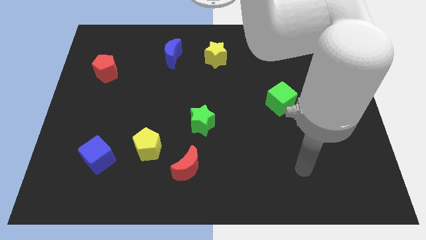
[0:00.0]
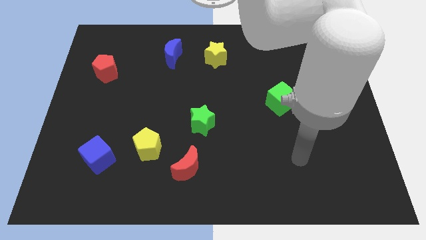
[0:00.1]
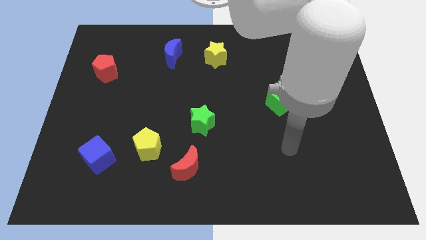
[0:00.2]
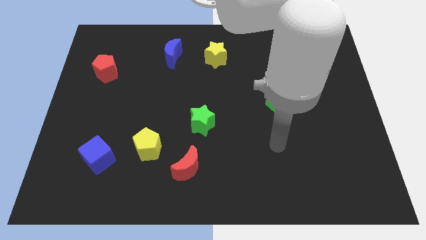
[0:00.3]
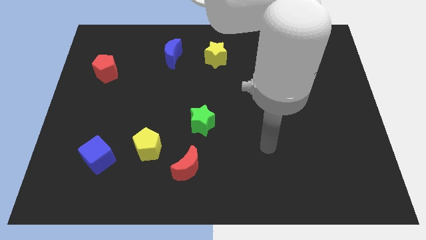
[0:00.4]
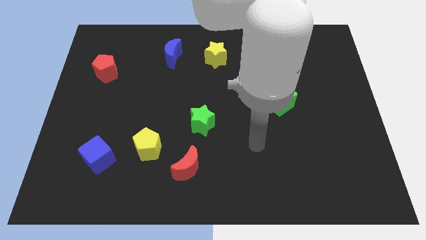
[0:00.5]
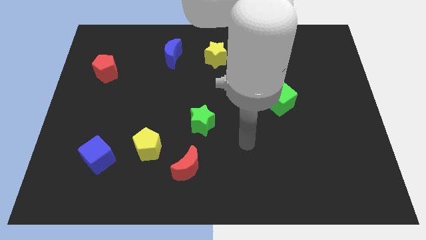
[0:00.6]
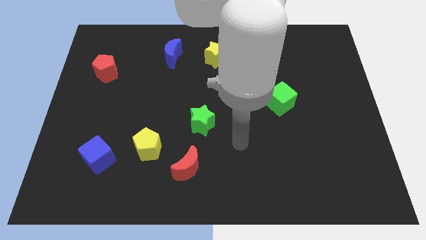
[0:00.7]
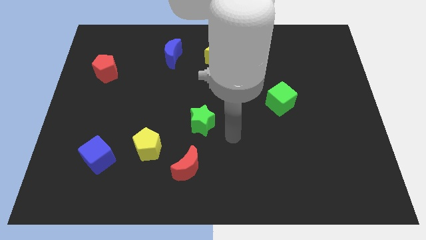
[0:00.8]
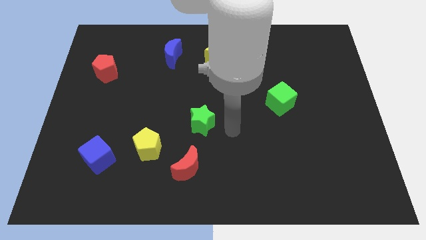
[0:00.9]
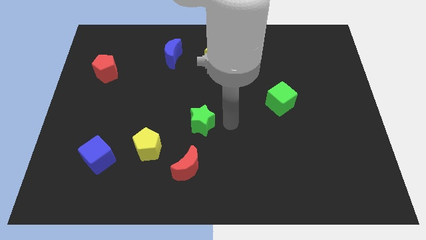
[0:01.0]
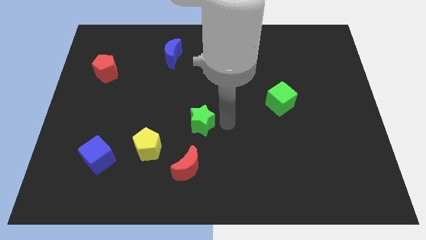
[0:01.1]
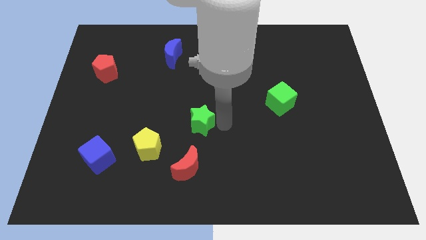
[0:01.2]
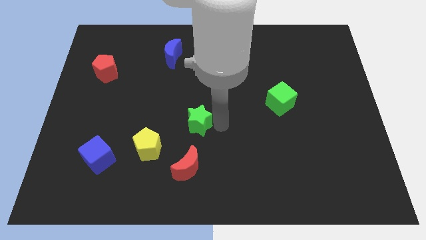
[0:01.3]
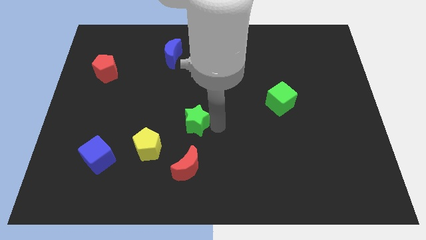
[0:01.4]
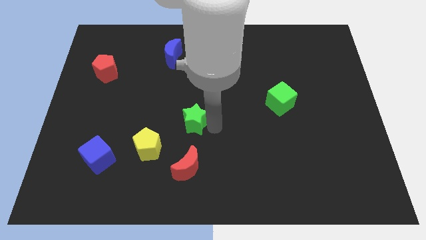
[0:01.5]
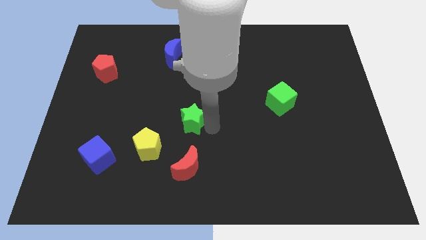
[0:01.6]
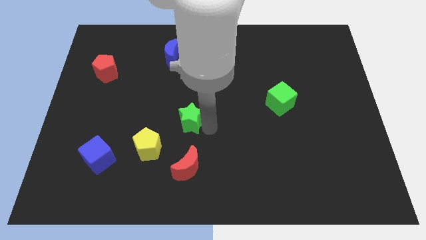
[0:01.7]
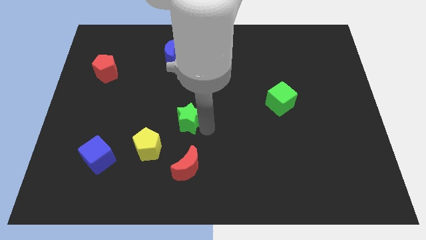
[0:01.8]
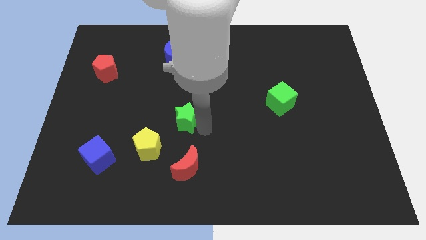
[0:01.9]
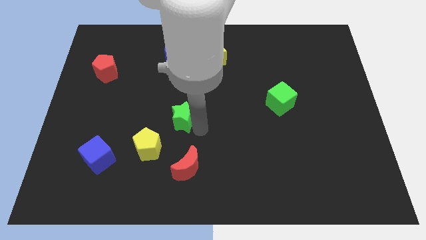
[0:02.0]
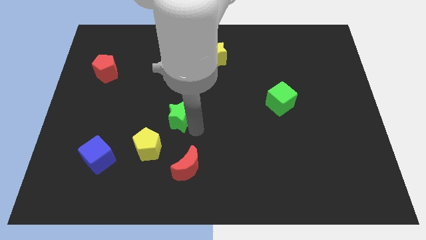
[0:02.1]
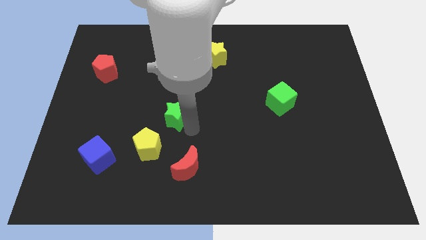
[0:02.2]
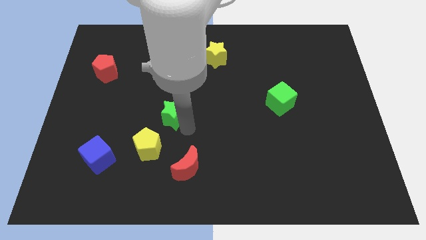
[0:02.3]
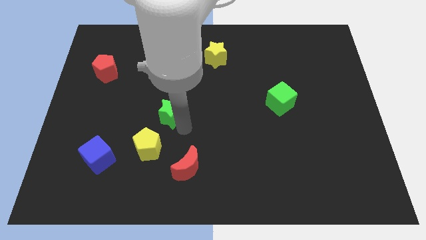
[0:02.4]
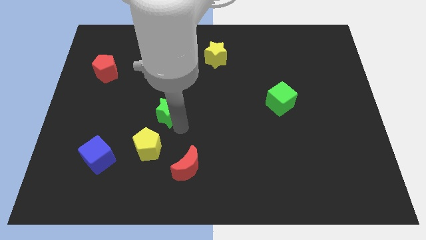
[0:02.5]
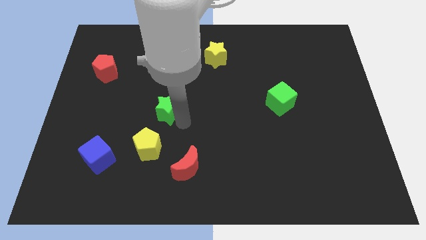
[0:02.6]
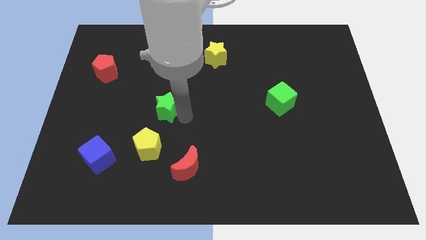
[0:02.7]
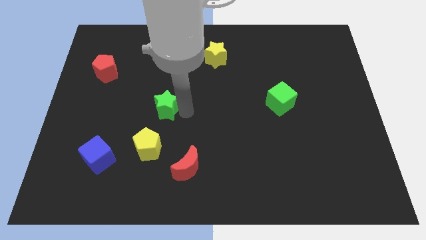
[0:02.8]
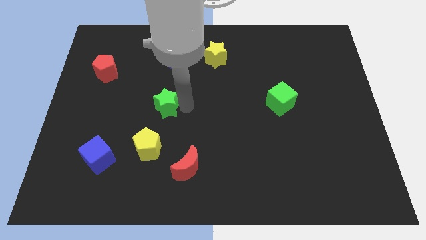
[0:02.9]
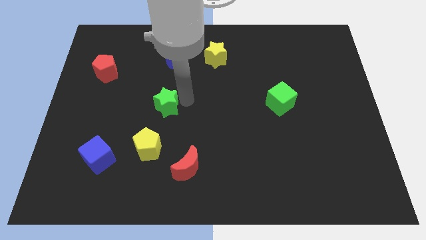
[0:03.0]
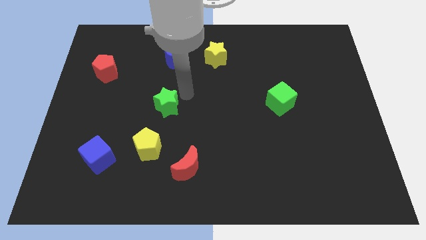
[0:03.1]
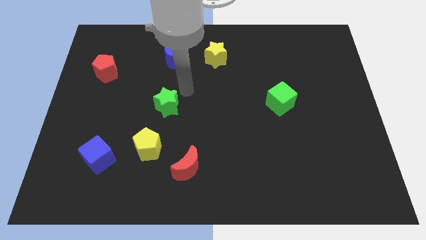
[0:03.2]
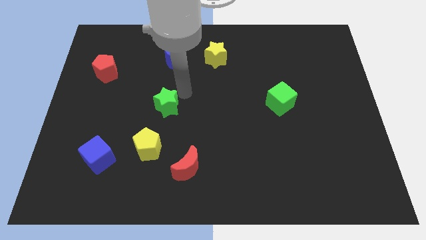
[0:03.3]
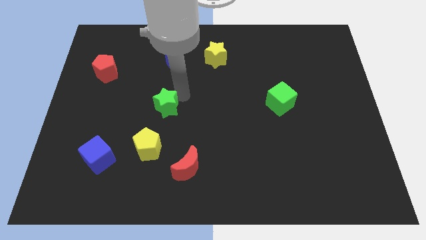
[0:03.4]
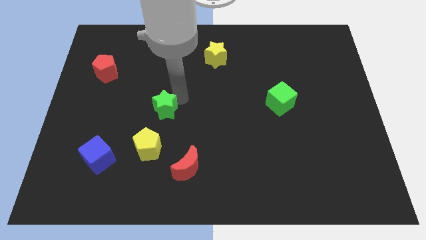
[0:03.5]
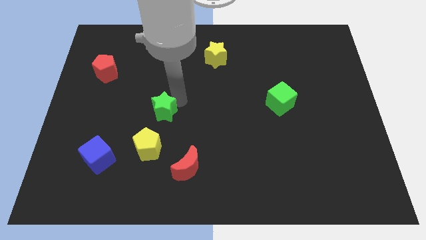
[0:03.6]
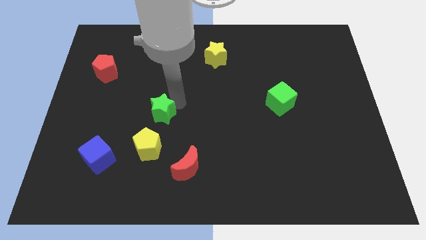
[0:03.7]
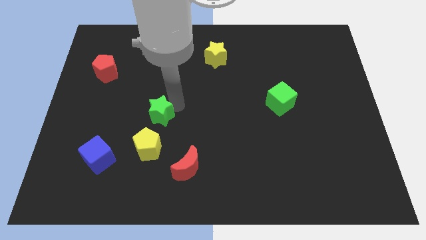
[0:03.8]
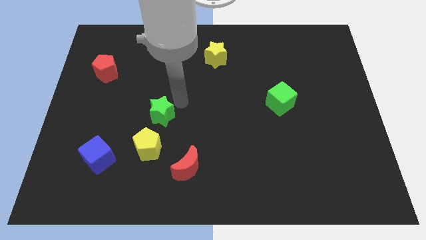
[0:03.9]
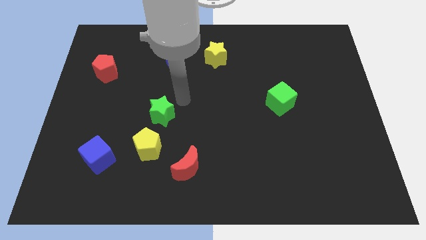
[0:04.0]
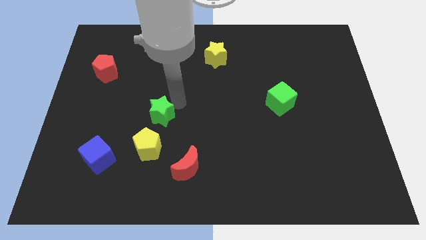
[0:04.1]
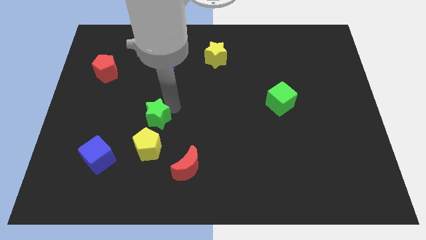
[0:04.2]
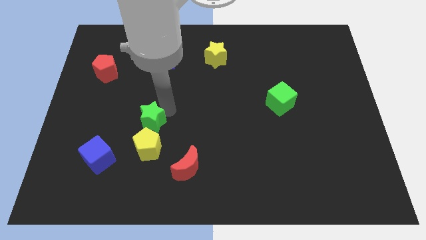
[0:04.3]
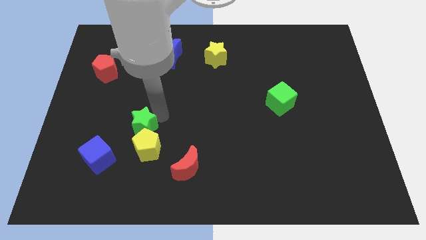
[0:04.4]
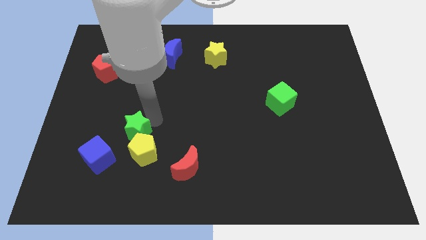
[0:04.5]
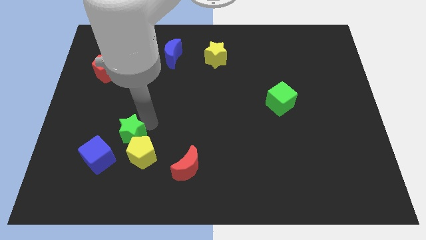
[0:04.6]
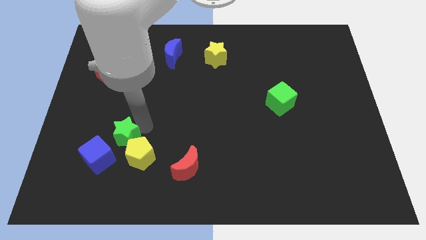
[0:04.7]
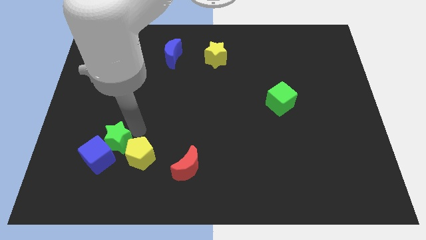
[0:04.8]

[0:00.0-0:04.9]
put the green star next to the blue cube

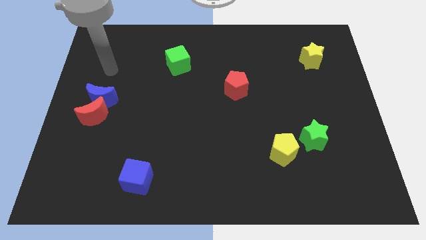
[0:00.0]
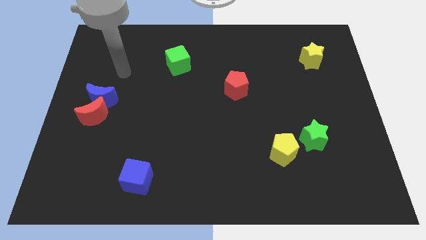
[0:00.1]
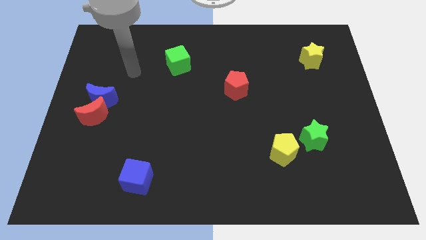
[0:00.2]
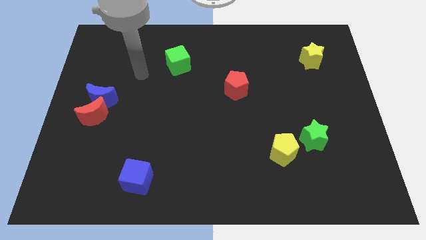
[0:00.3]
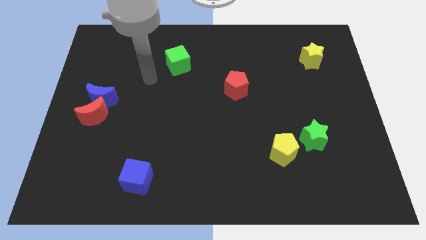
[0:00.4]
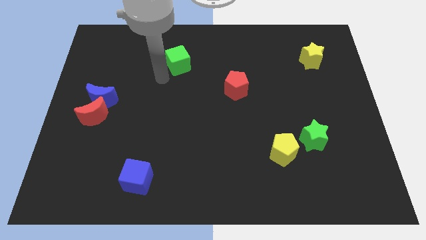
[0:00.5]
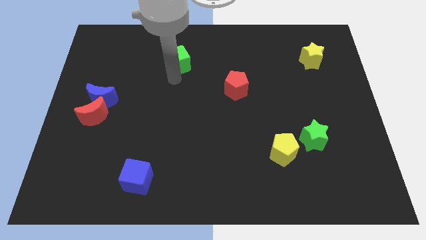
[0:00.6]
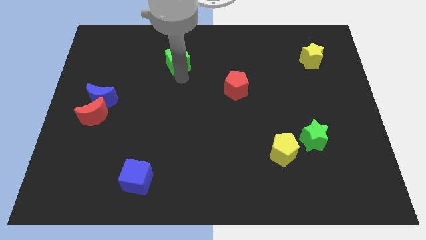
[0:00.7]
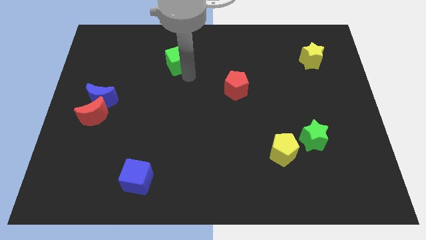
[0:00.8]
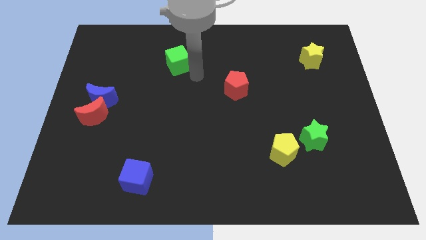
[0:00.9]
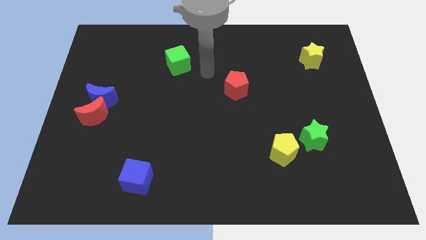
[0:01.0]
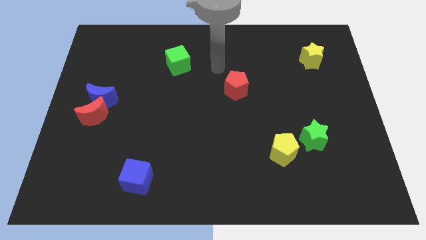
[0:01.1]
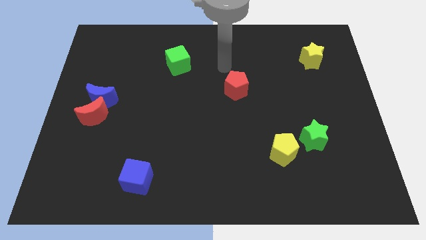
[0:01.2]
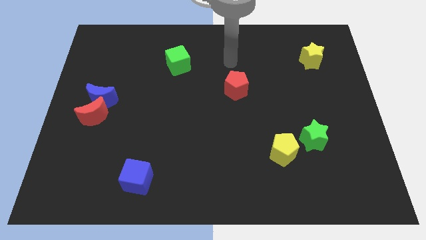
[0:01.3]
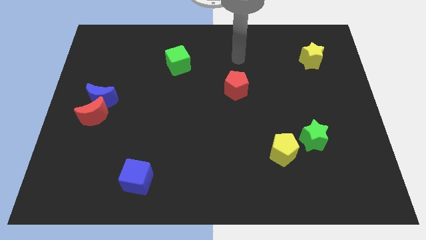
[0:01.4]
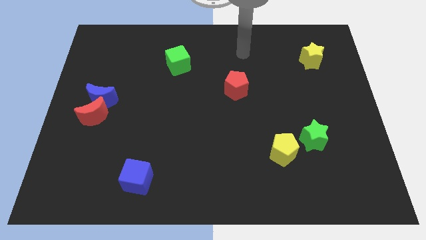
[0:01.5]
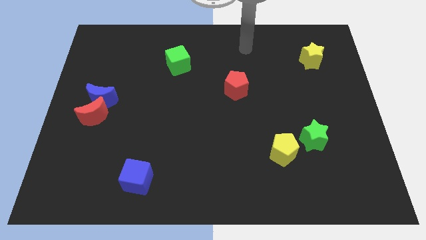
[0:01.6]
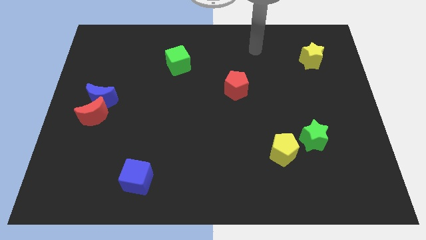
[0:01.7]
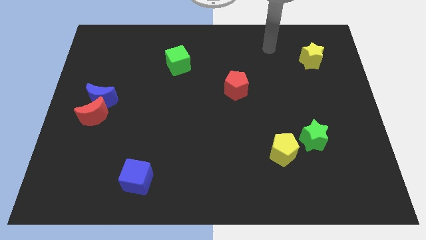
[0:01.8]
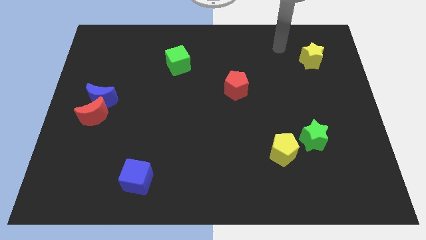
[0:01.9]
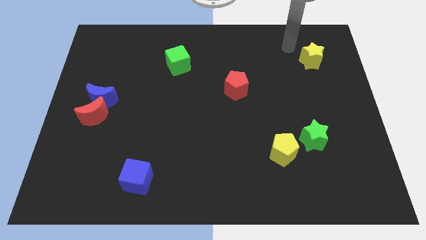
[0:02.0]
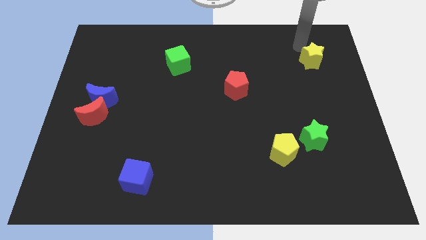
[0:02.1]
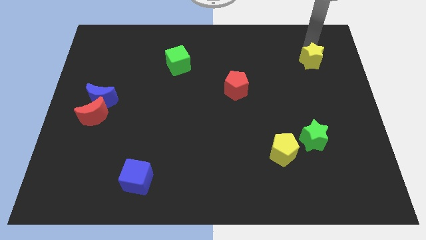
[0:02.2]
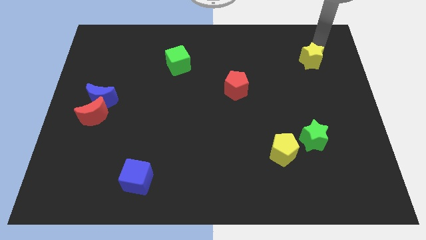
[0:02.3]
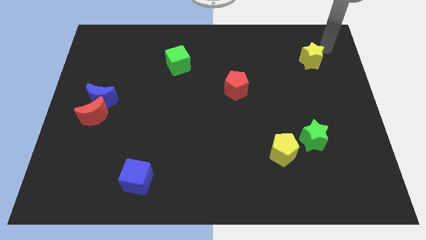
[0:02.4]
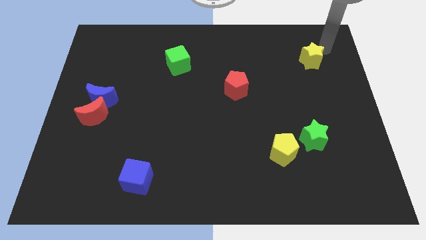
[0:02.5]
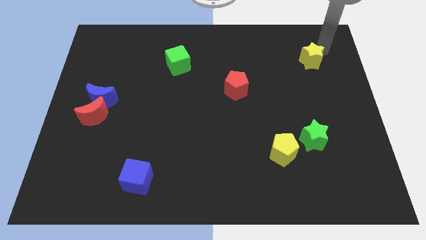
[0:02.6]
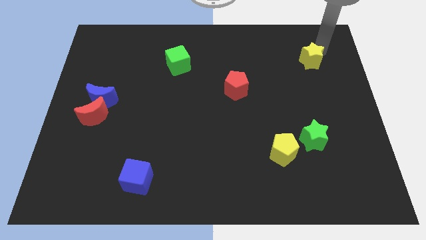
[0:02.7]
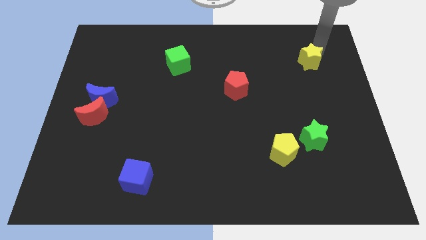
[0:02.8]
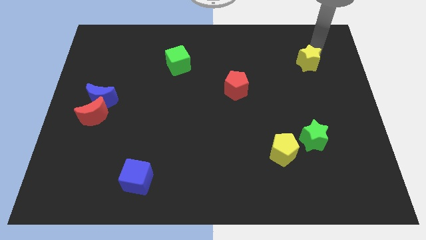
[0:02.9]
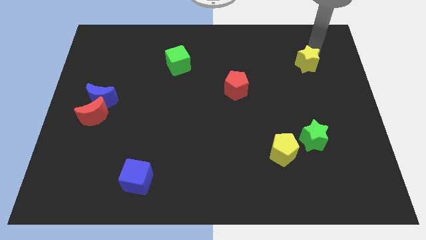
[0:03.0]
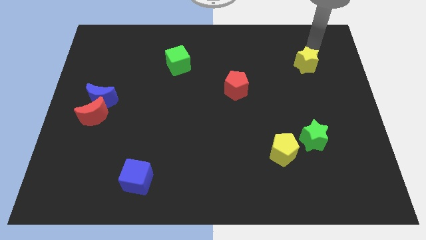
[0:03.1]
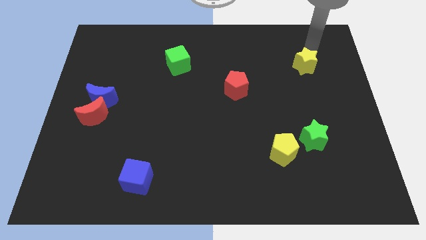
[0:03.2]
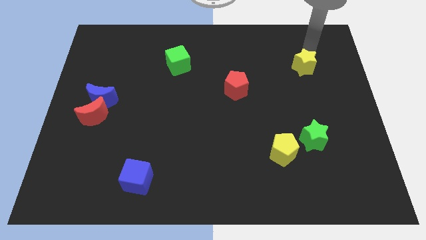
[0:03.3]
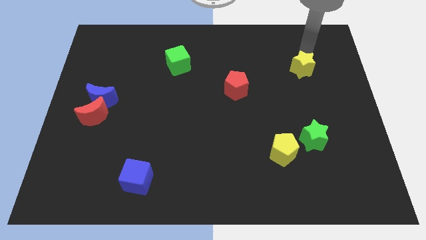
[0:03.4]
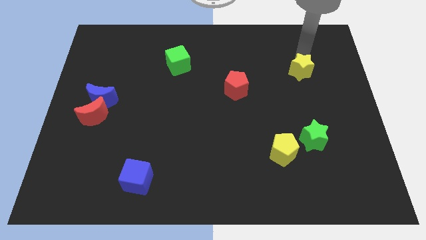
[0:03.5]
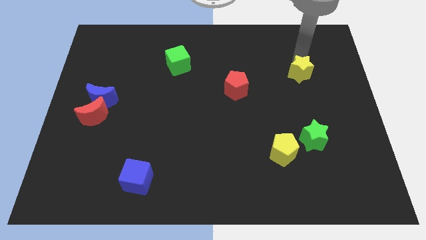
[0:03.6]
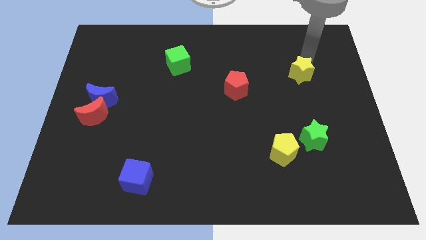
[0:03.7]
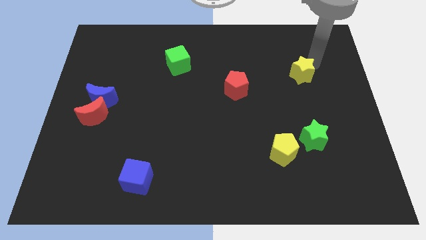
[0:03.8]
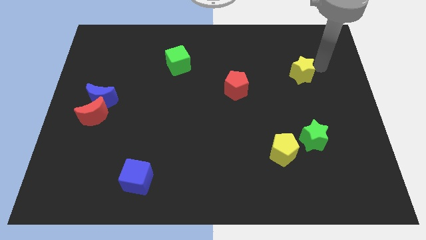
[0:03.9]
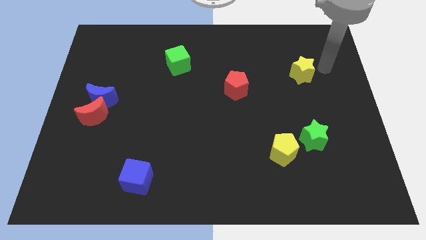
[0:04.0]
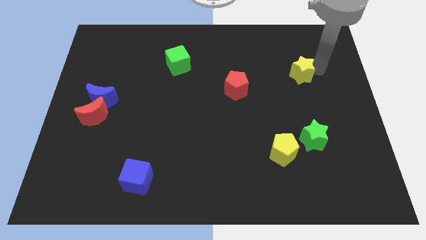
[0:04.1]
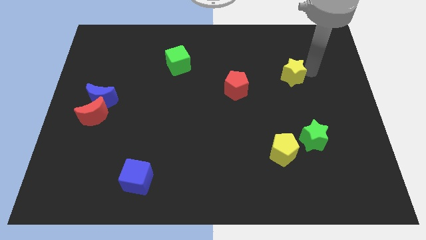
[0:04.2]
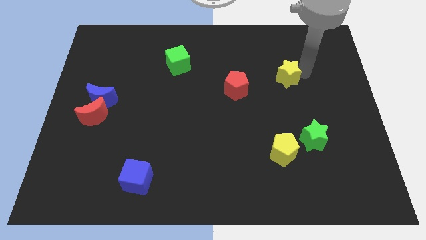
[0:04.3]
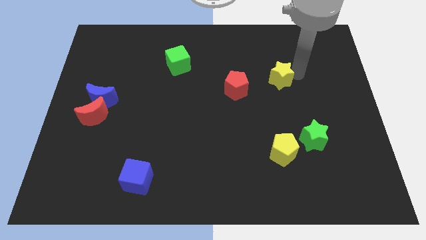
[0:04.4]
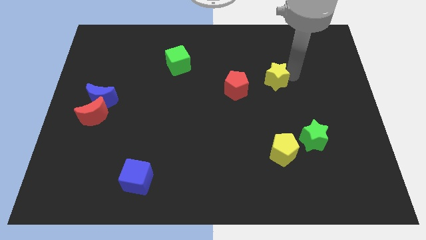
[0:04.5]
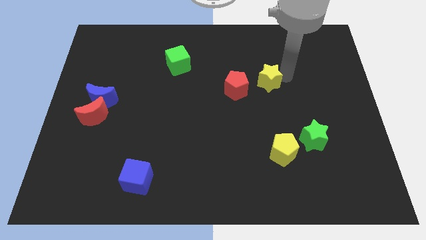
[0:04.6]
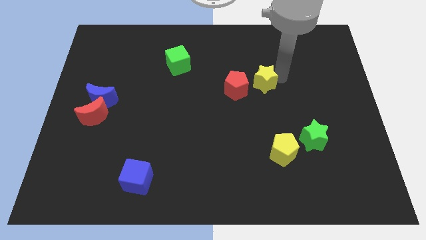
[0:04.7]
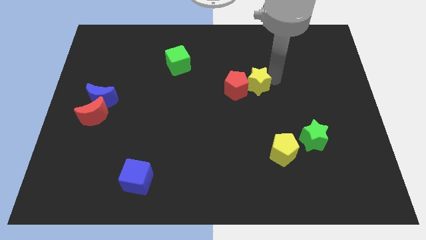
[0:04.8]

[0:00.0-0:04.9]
push the yellow star towards the red pentagon
